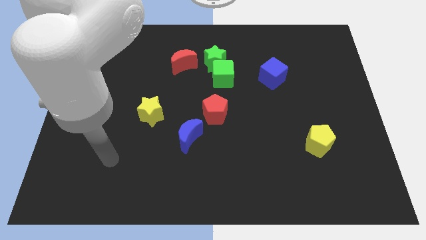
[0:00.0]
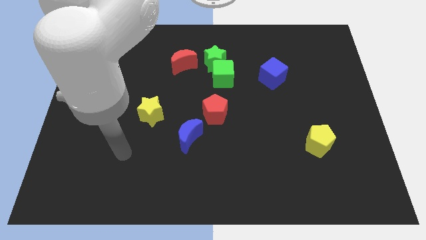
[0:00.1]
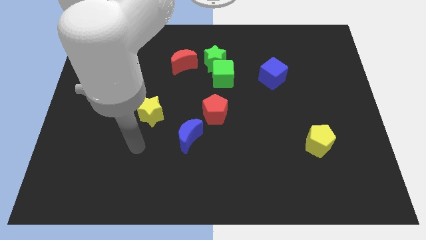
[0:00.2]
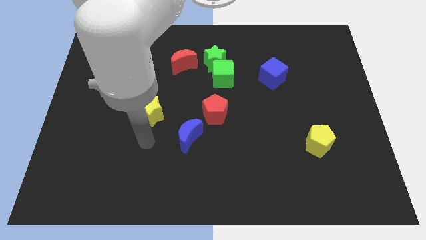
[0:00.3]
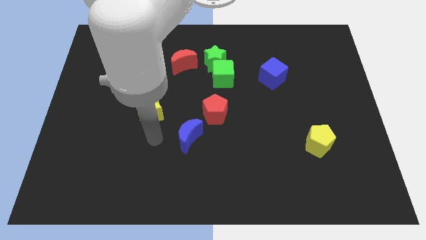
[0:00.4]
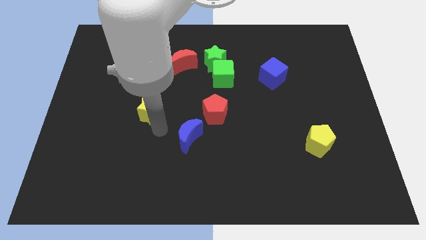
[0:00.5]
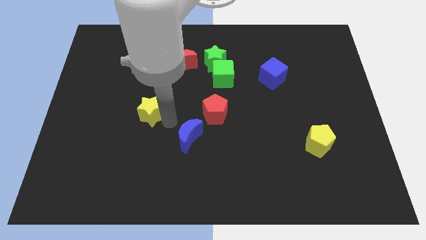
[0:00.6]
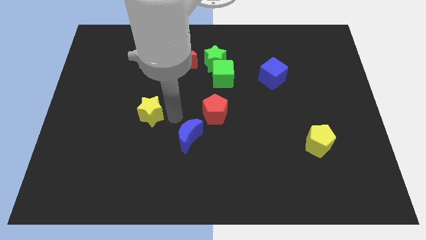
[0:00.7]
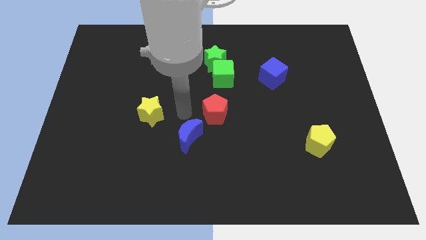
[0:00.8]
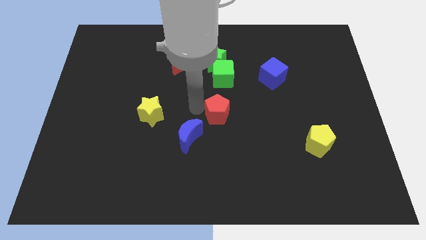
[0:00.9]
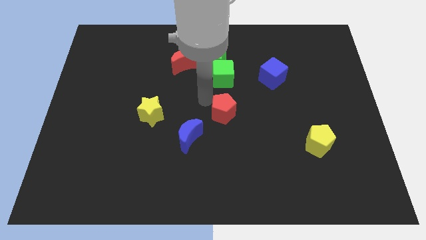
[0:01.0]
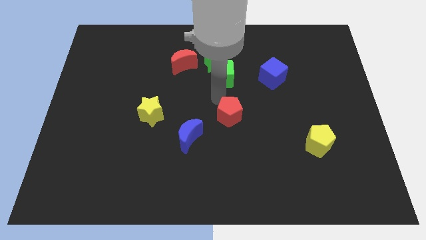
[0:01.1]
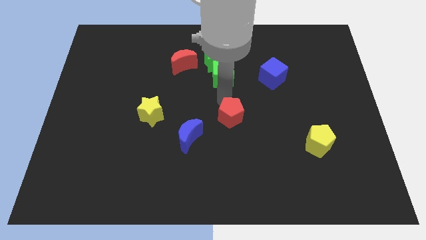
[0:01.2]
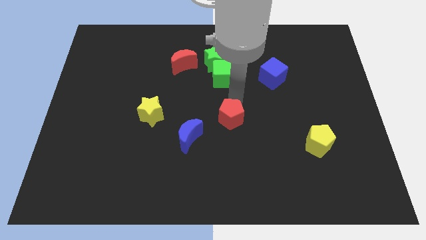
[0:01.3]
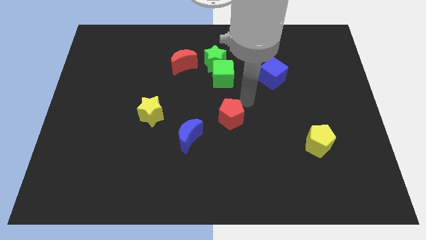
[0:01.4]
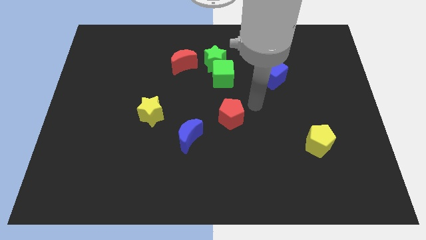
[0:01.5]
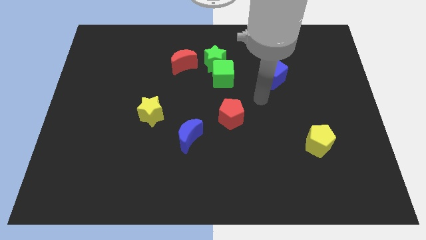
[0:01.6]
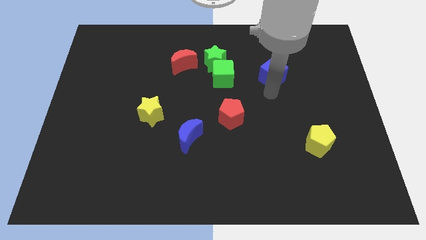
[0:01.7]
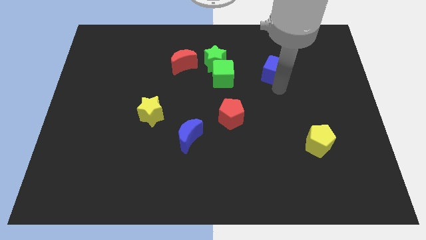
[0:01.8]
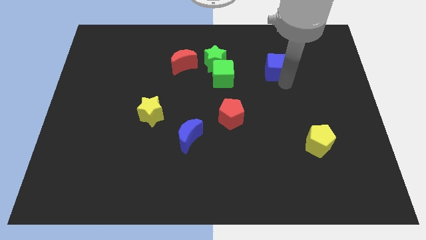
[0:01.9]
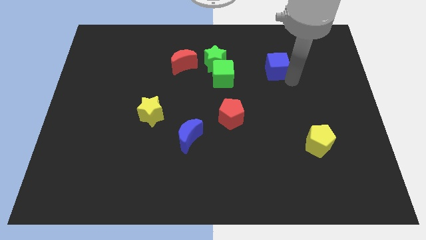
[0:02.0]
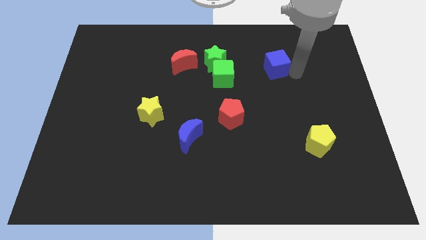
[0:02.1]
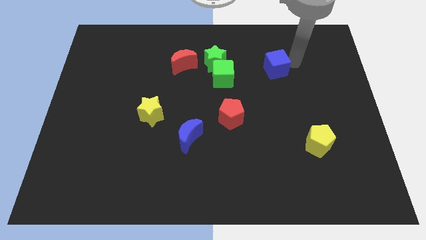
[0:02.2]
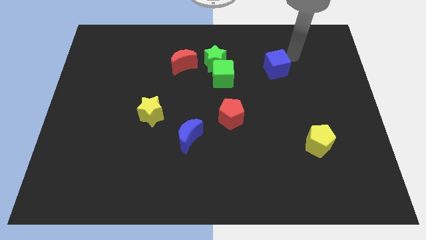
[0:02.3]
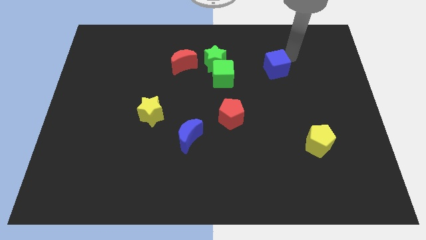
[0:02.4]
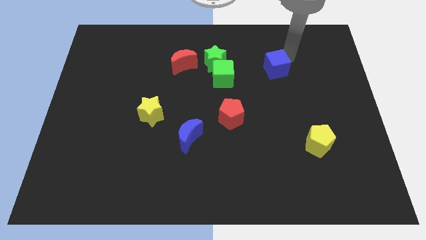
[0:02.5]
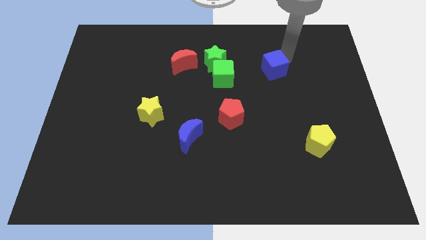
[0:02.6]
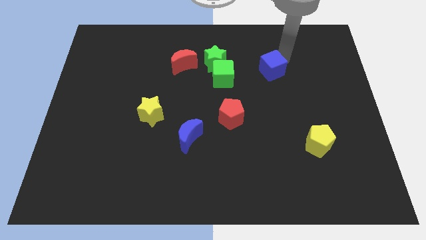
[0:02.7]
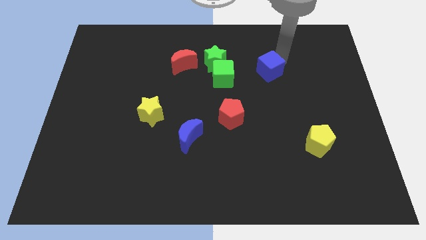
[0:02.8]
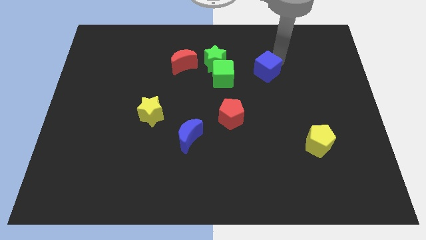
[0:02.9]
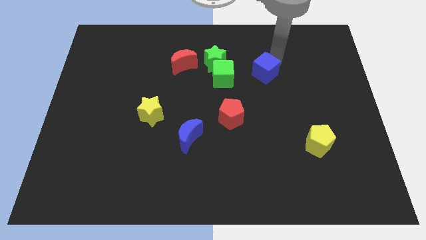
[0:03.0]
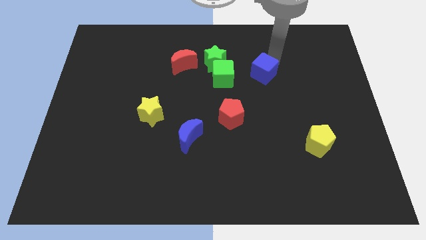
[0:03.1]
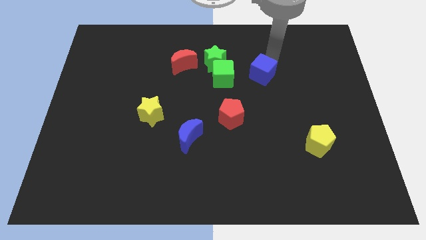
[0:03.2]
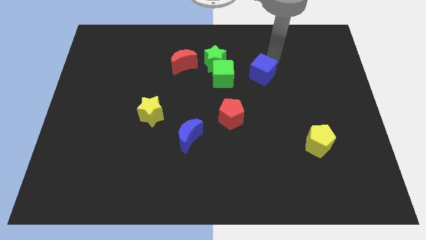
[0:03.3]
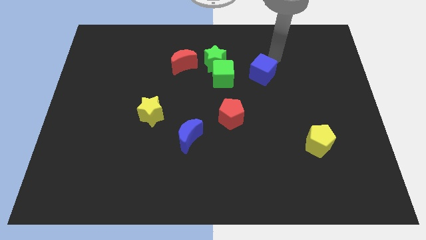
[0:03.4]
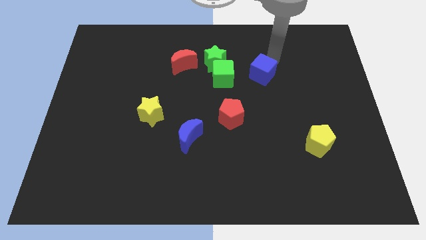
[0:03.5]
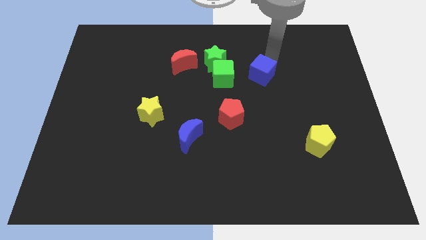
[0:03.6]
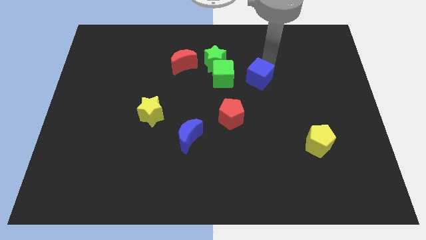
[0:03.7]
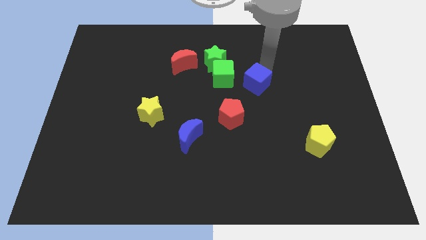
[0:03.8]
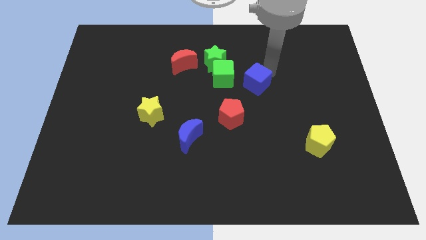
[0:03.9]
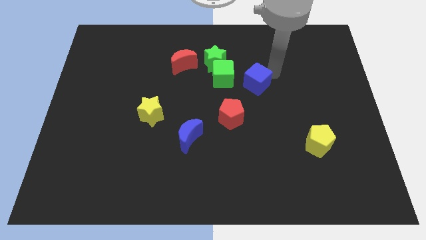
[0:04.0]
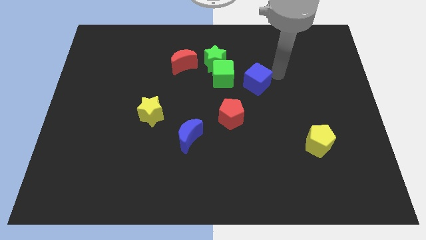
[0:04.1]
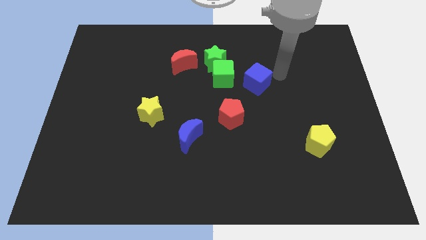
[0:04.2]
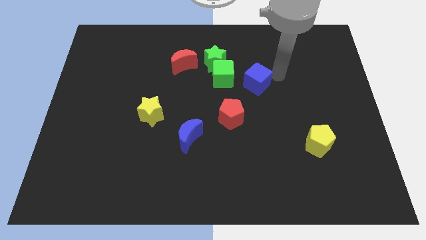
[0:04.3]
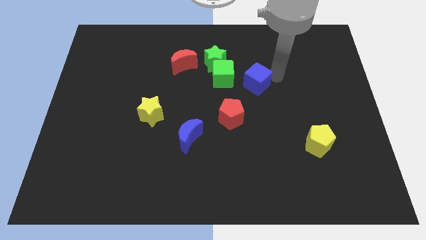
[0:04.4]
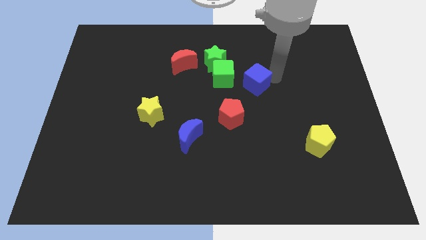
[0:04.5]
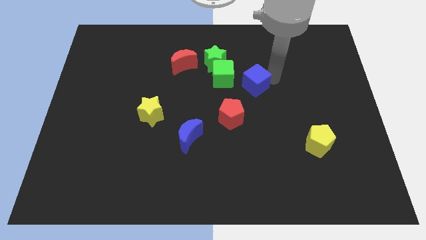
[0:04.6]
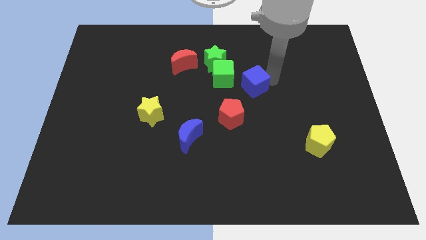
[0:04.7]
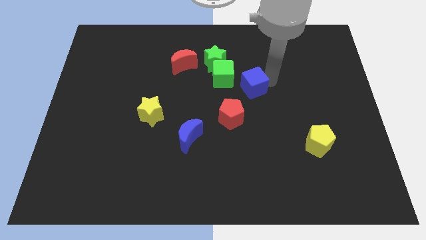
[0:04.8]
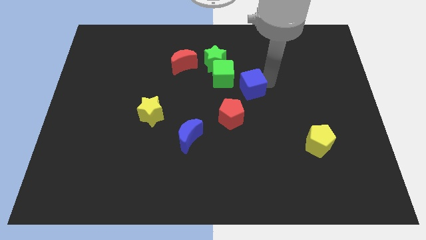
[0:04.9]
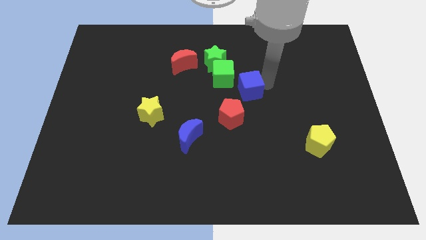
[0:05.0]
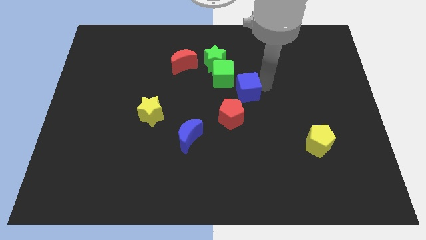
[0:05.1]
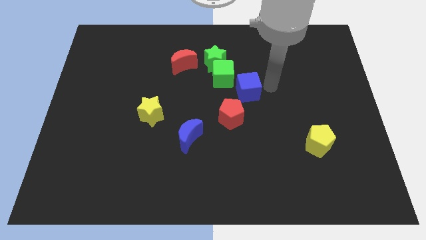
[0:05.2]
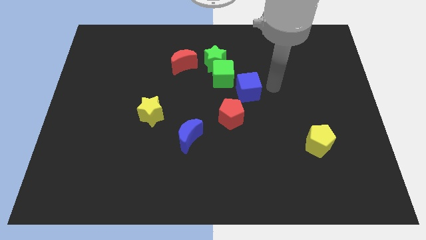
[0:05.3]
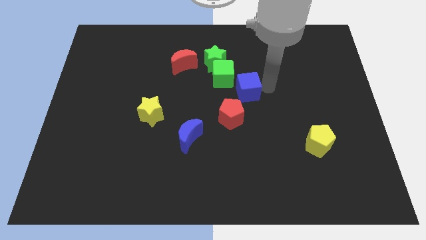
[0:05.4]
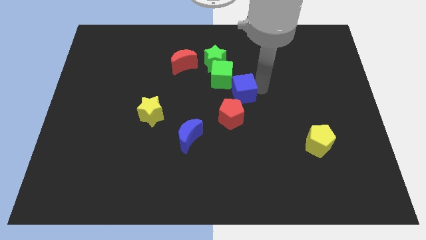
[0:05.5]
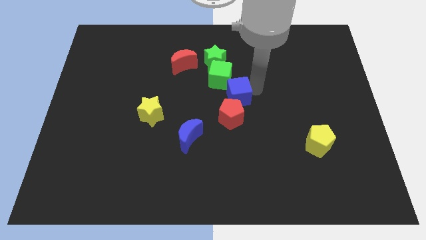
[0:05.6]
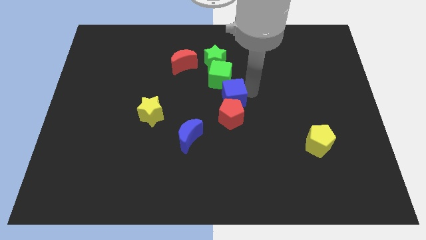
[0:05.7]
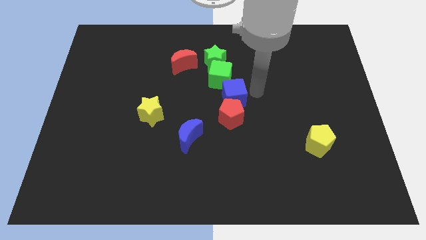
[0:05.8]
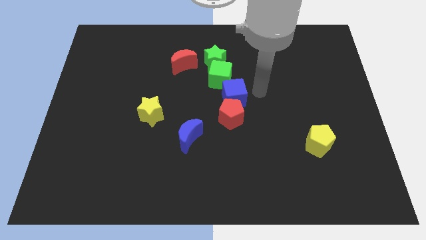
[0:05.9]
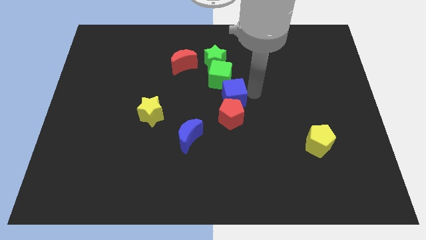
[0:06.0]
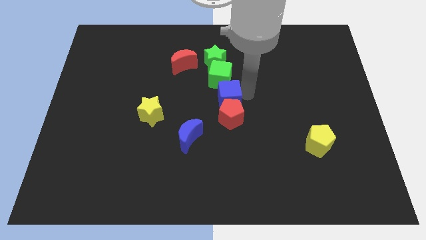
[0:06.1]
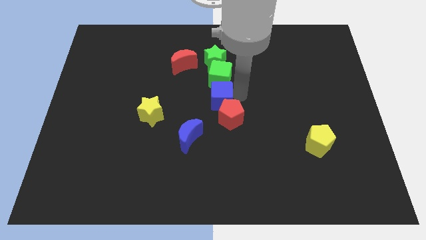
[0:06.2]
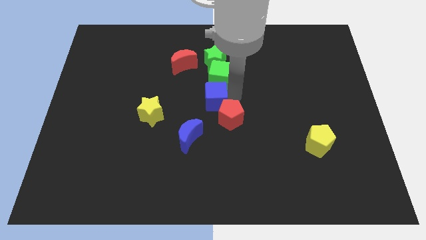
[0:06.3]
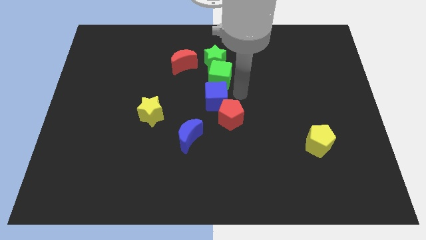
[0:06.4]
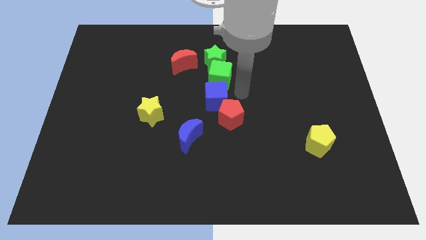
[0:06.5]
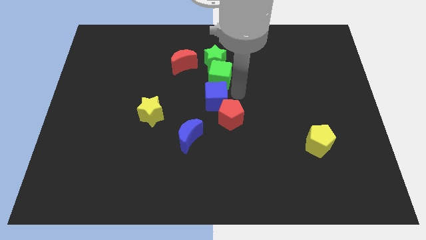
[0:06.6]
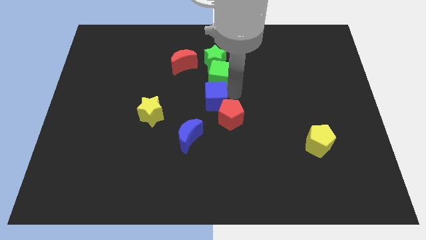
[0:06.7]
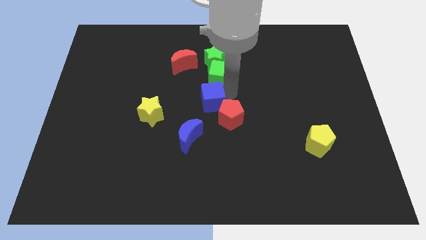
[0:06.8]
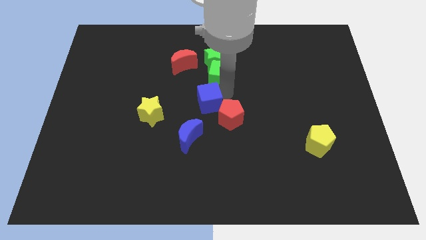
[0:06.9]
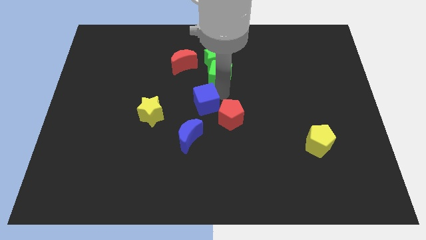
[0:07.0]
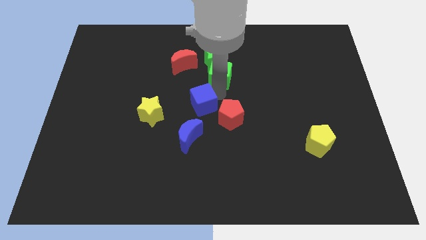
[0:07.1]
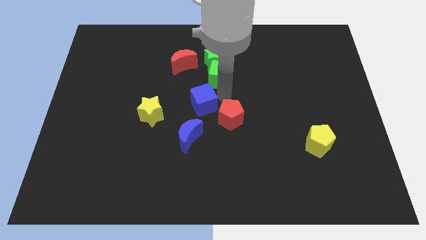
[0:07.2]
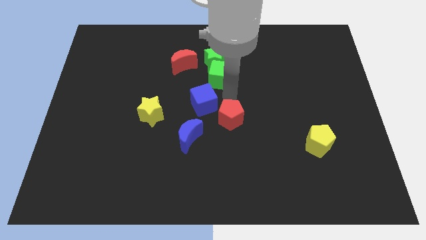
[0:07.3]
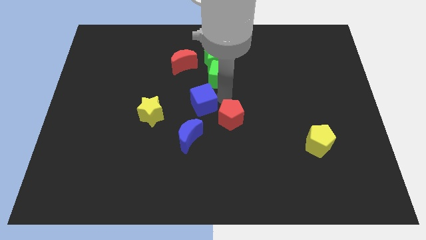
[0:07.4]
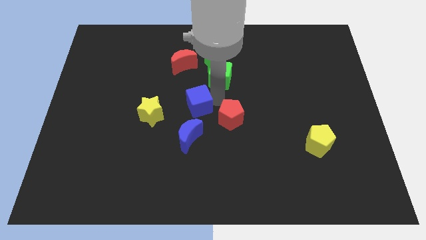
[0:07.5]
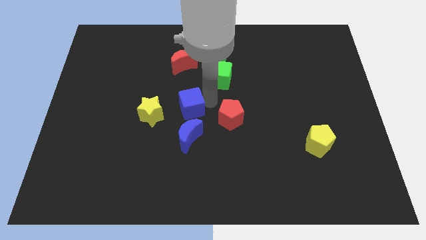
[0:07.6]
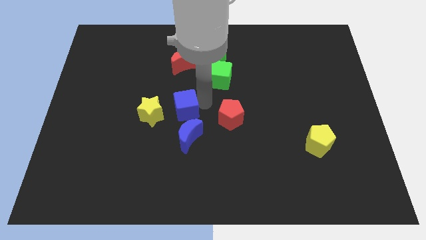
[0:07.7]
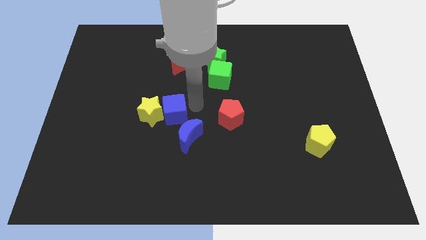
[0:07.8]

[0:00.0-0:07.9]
move the blue cube next to the yellow star
